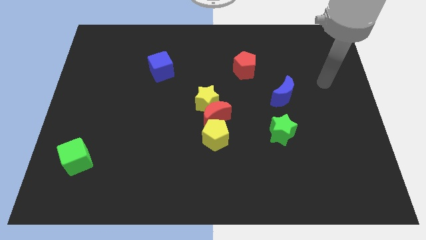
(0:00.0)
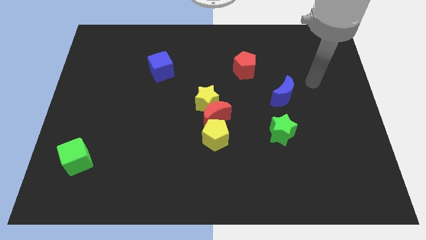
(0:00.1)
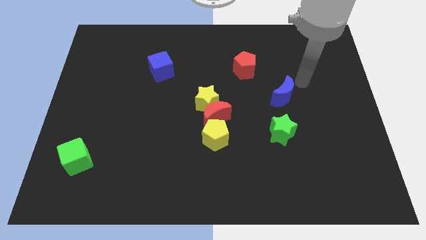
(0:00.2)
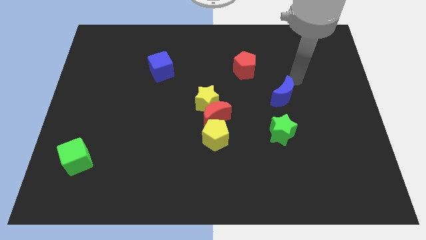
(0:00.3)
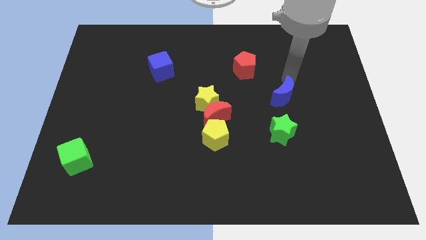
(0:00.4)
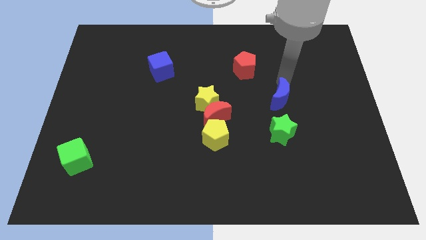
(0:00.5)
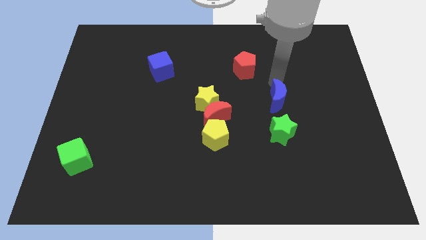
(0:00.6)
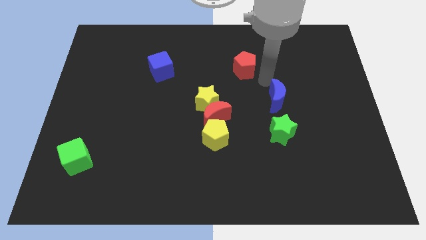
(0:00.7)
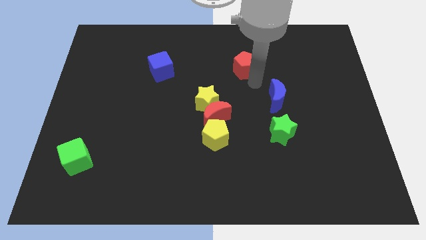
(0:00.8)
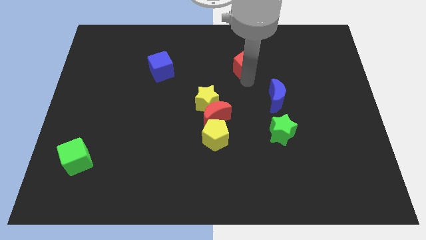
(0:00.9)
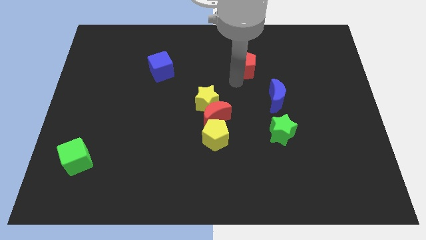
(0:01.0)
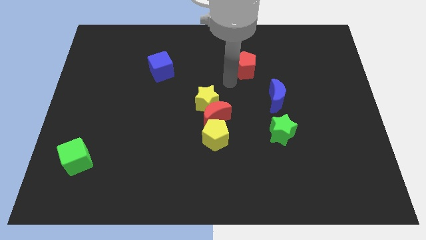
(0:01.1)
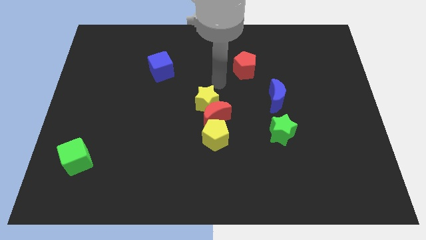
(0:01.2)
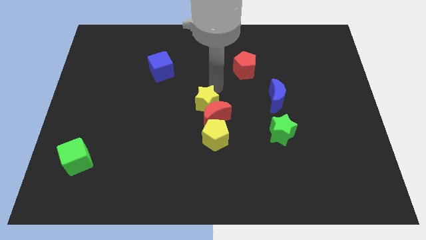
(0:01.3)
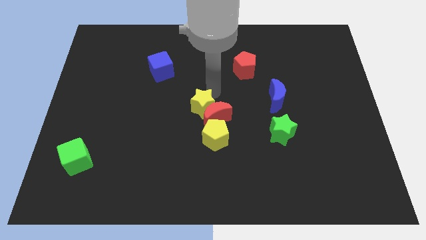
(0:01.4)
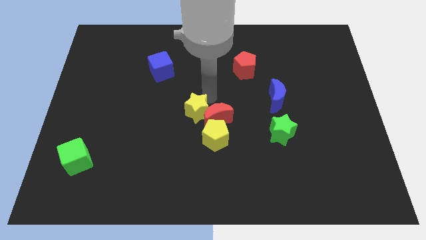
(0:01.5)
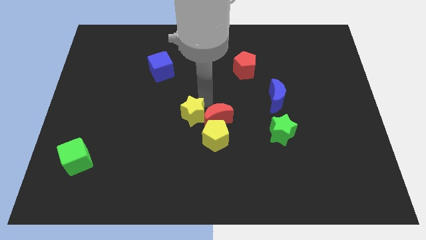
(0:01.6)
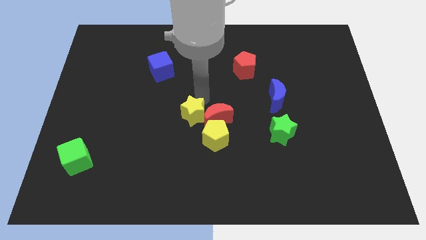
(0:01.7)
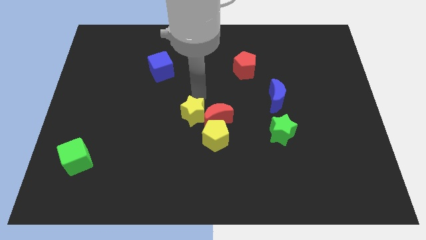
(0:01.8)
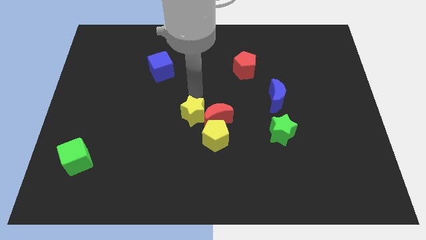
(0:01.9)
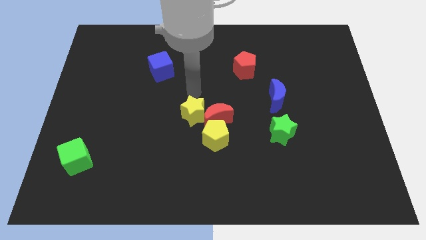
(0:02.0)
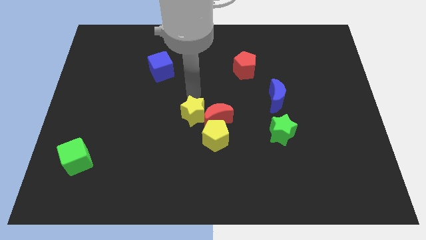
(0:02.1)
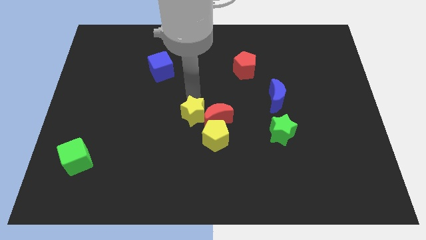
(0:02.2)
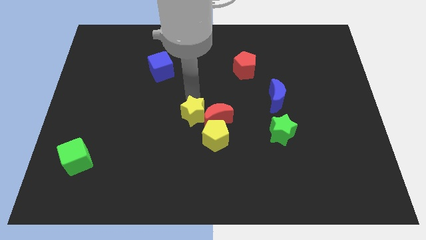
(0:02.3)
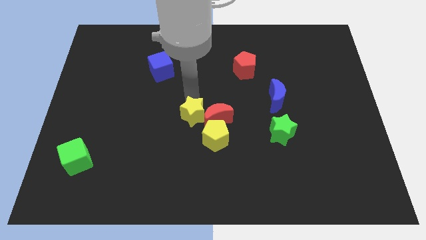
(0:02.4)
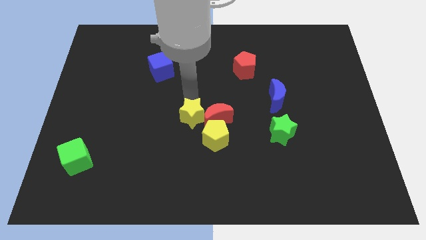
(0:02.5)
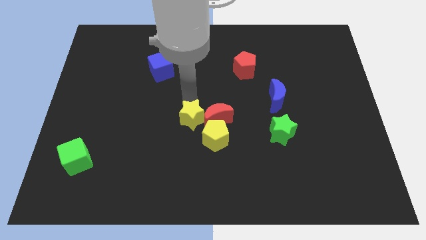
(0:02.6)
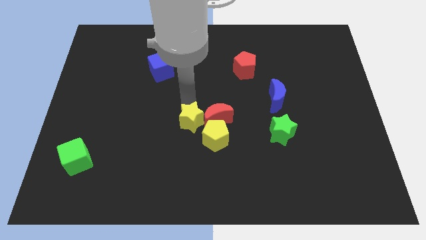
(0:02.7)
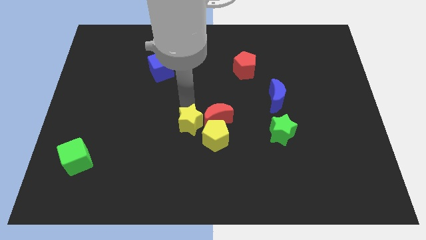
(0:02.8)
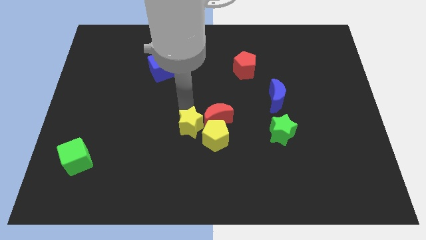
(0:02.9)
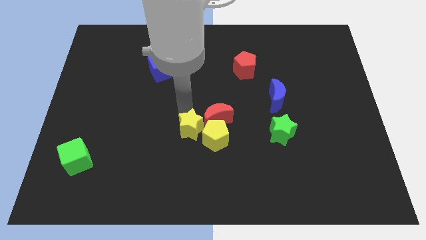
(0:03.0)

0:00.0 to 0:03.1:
move the yellow star downwards a little bit

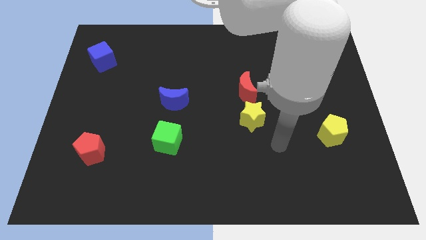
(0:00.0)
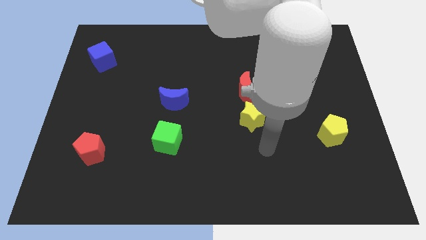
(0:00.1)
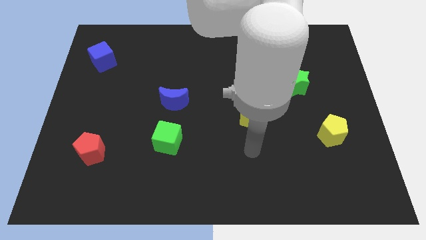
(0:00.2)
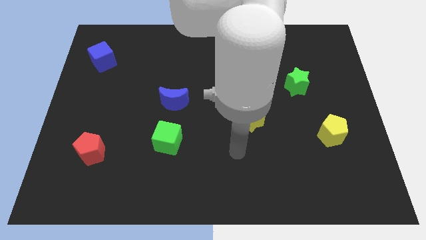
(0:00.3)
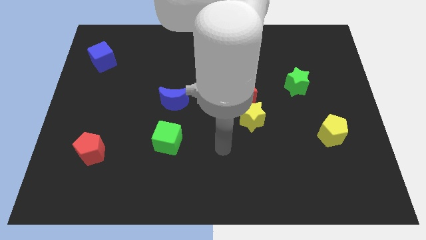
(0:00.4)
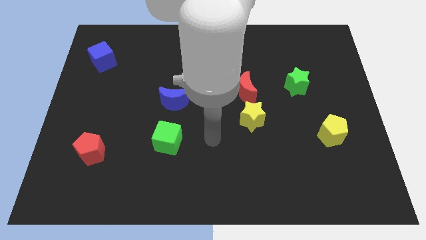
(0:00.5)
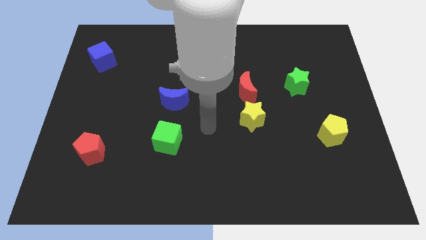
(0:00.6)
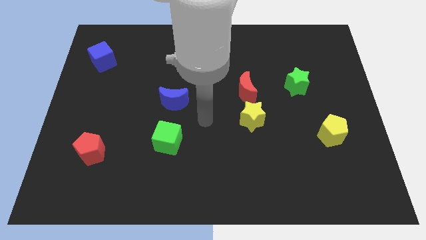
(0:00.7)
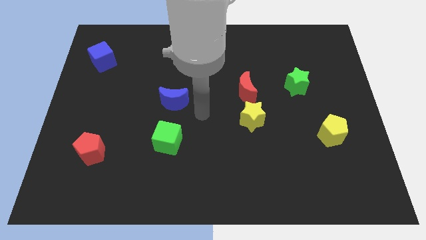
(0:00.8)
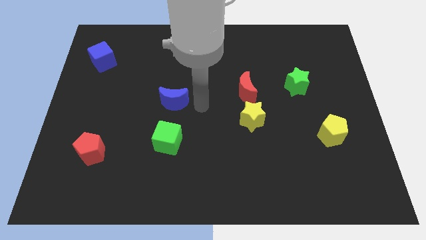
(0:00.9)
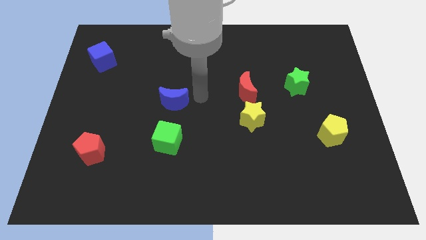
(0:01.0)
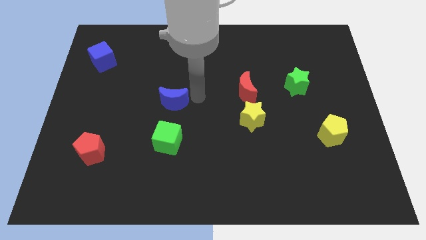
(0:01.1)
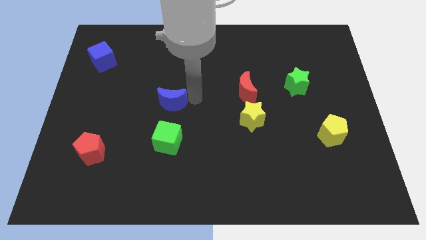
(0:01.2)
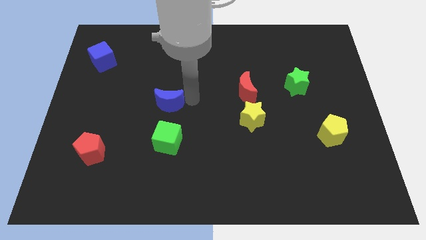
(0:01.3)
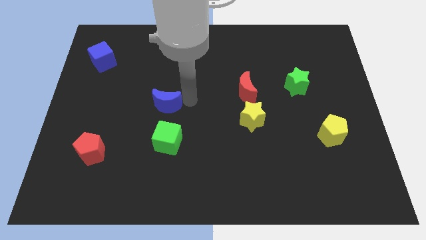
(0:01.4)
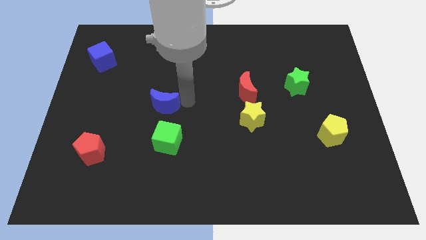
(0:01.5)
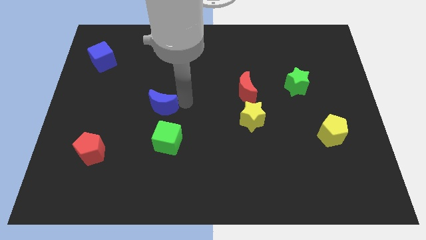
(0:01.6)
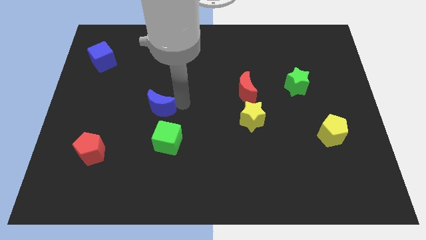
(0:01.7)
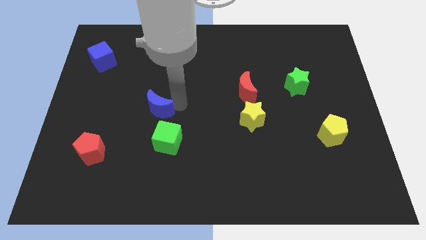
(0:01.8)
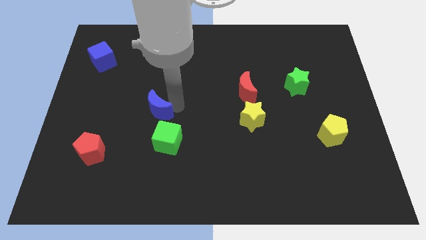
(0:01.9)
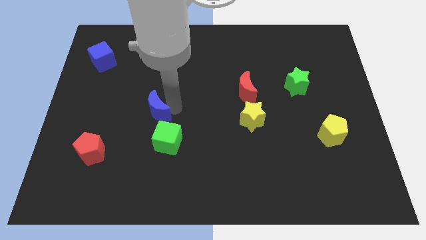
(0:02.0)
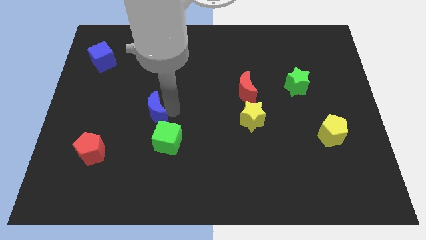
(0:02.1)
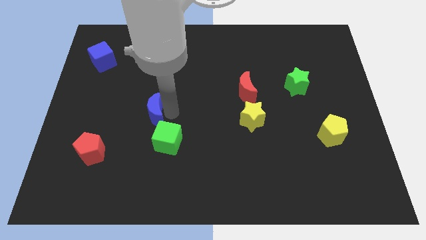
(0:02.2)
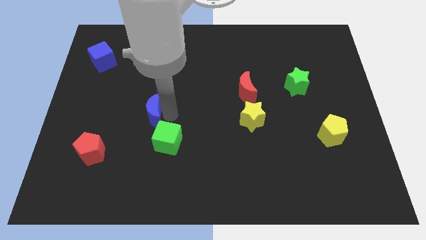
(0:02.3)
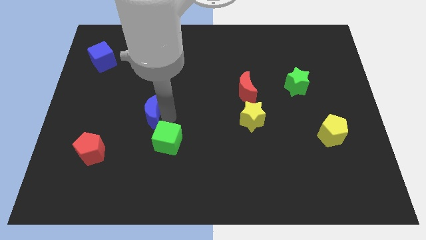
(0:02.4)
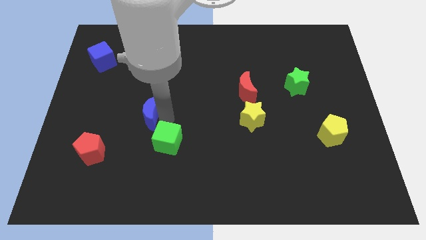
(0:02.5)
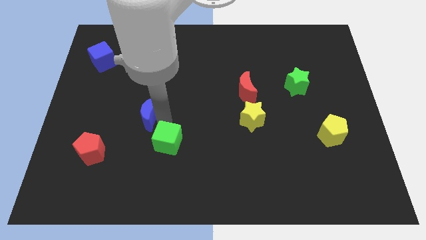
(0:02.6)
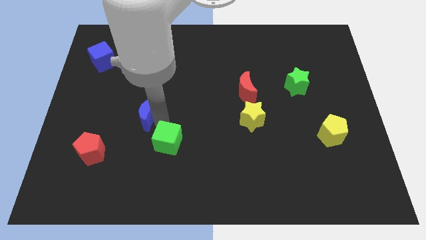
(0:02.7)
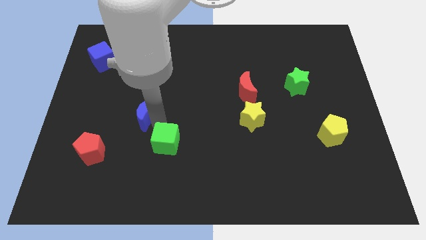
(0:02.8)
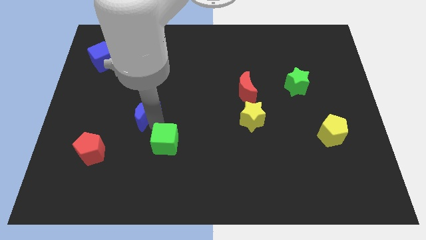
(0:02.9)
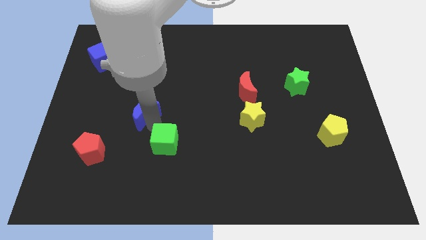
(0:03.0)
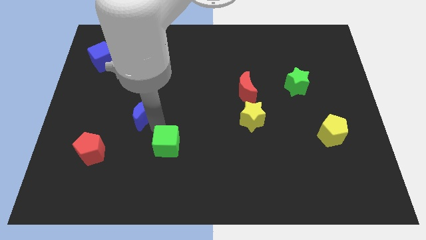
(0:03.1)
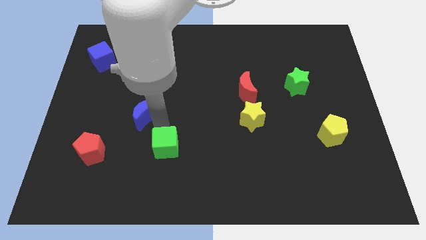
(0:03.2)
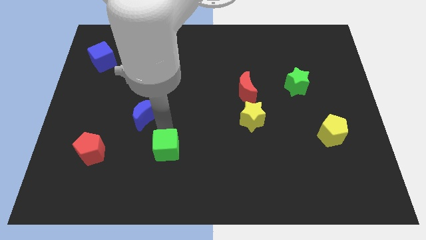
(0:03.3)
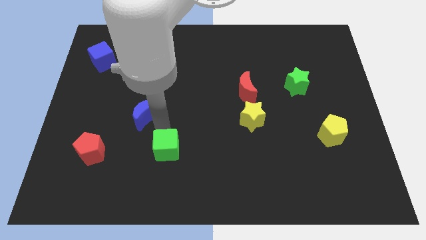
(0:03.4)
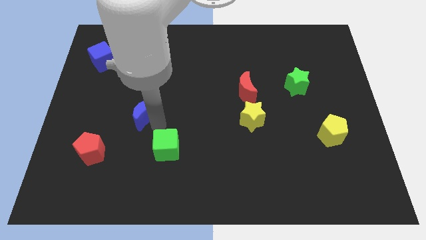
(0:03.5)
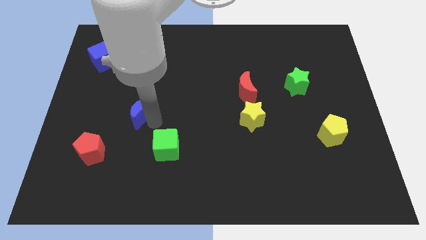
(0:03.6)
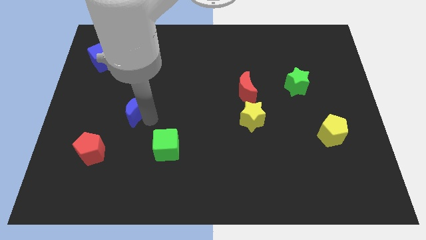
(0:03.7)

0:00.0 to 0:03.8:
push the blue moon left slightly

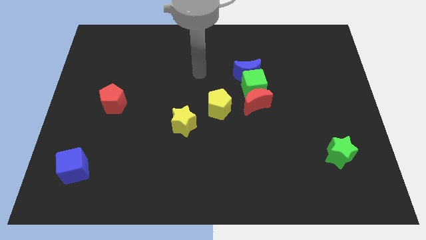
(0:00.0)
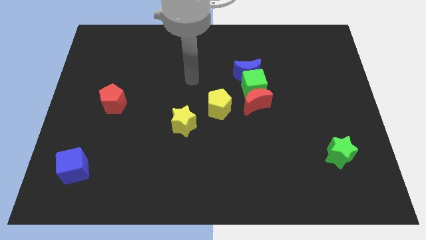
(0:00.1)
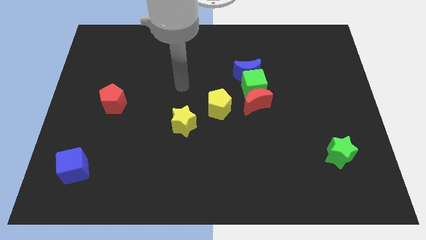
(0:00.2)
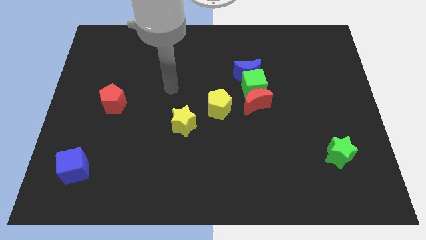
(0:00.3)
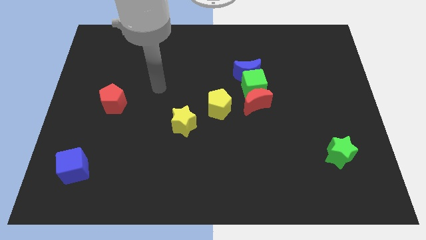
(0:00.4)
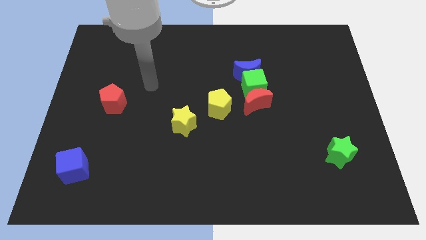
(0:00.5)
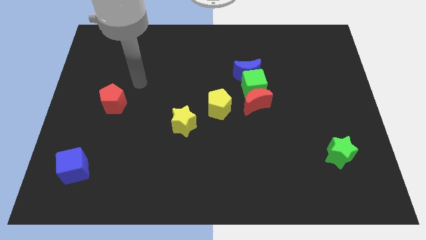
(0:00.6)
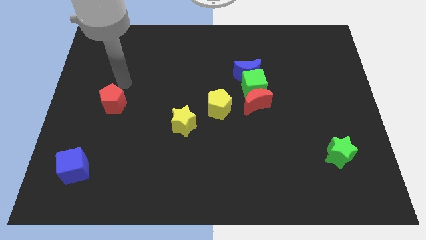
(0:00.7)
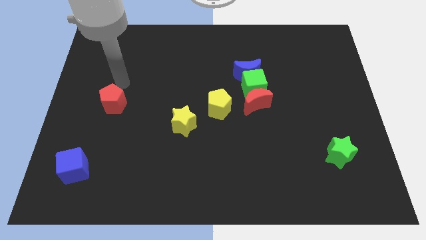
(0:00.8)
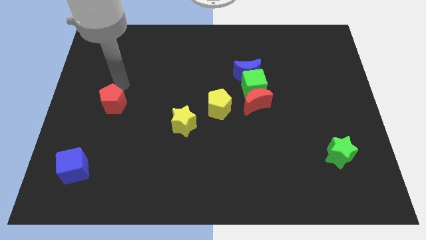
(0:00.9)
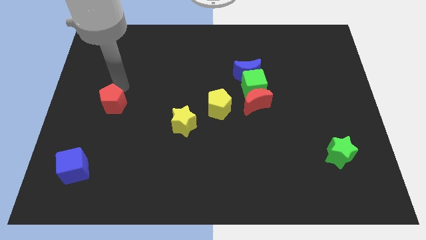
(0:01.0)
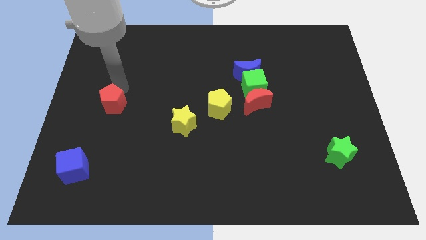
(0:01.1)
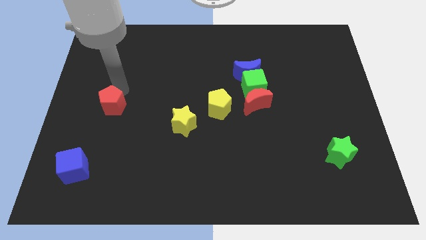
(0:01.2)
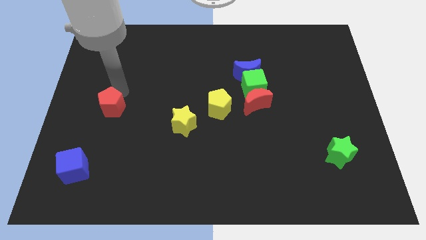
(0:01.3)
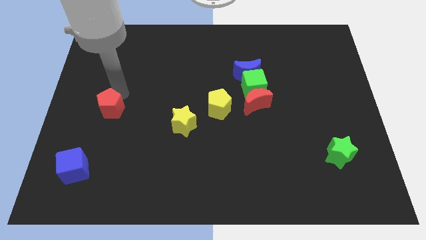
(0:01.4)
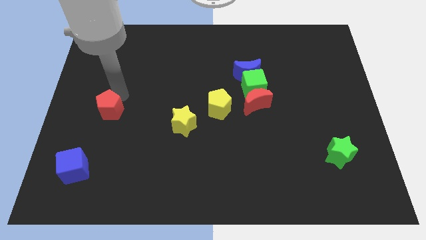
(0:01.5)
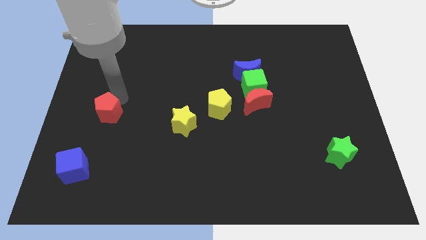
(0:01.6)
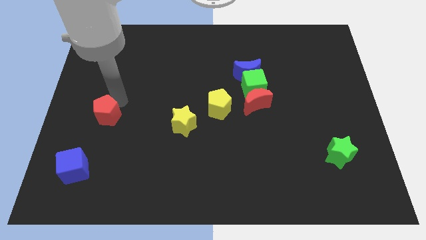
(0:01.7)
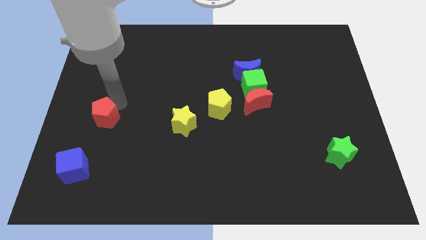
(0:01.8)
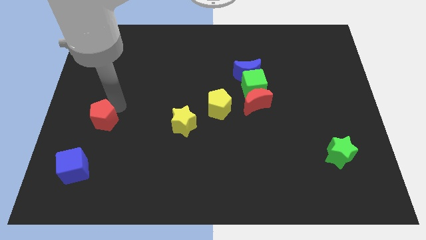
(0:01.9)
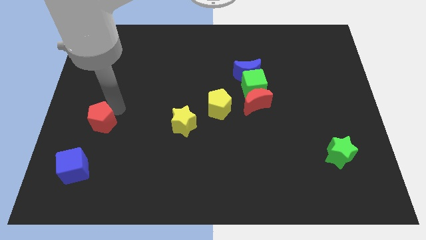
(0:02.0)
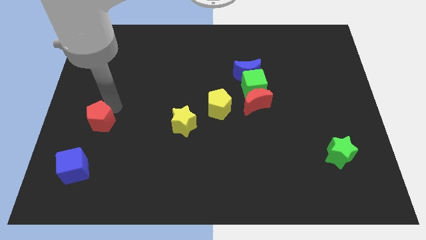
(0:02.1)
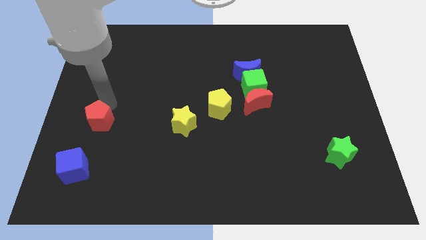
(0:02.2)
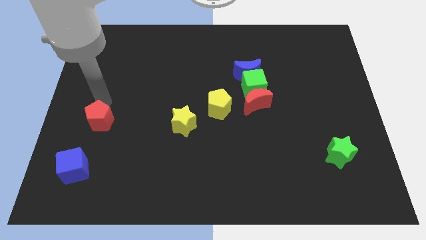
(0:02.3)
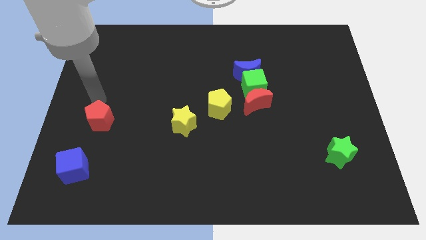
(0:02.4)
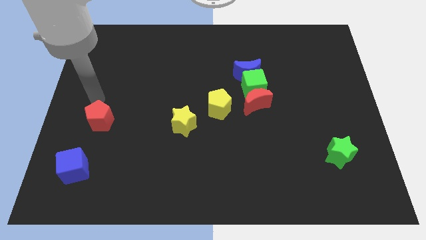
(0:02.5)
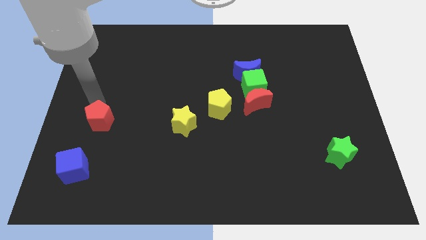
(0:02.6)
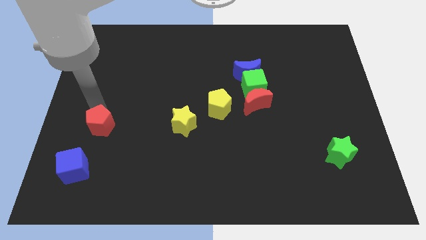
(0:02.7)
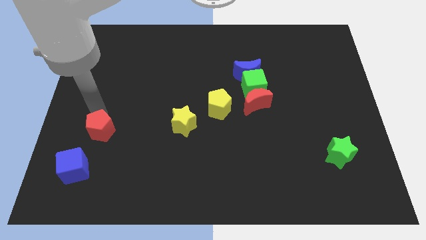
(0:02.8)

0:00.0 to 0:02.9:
move the red pentagon slightly downwards
